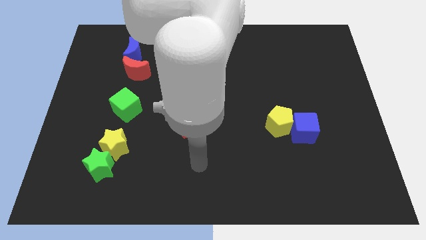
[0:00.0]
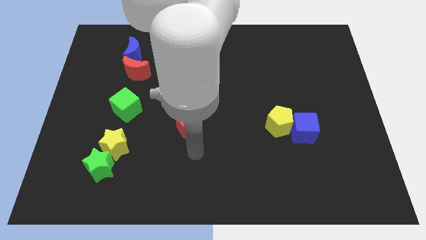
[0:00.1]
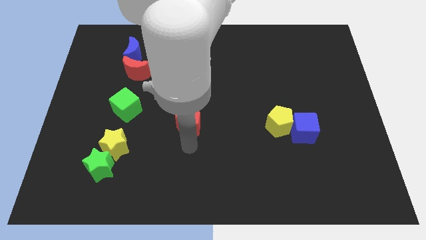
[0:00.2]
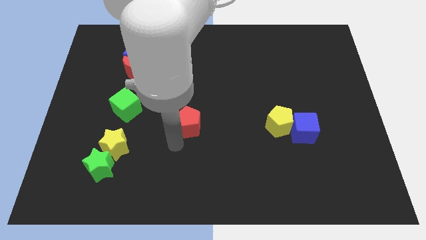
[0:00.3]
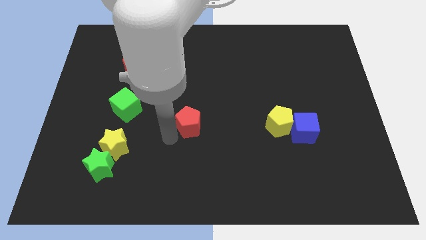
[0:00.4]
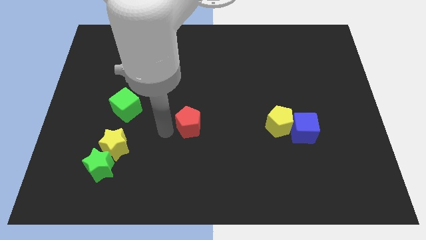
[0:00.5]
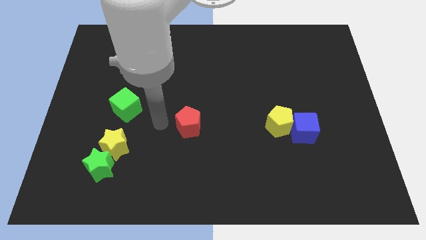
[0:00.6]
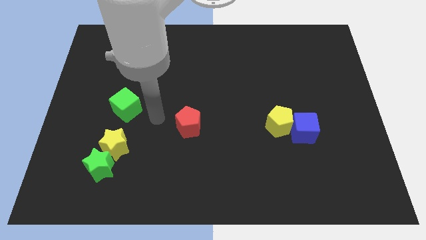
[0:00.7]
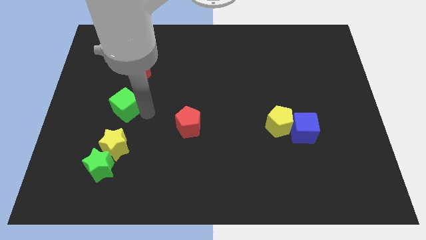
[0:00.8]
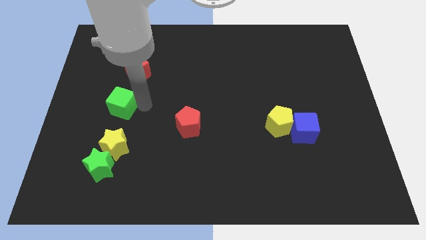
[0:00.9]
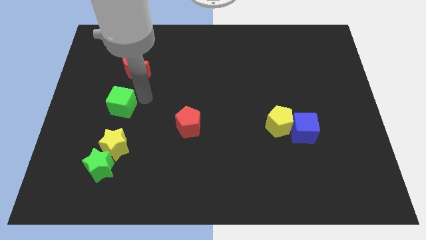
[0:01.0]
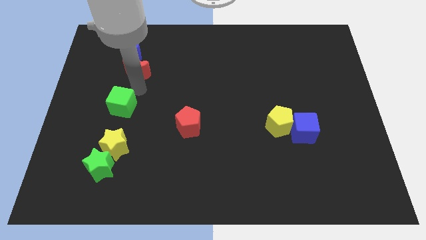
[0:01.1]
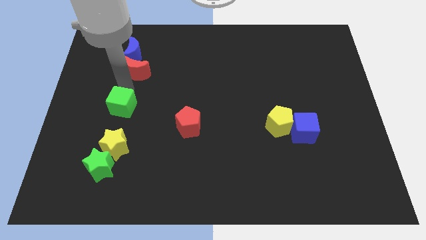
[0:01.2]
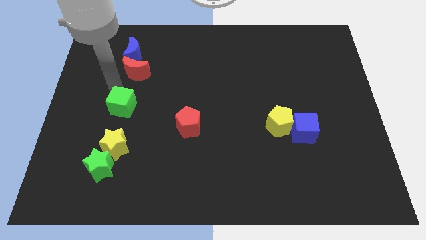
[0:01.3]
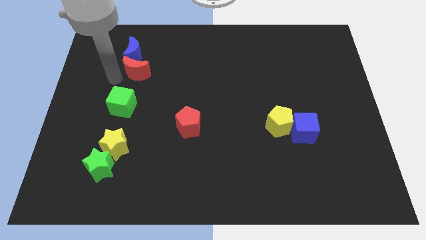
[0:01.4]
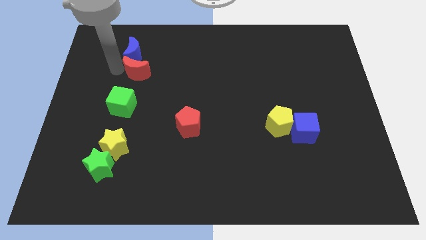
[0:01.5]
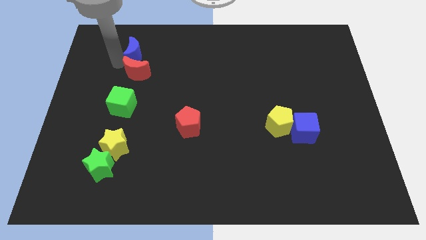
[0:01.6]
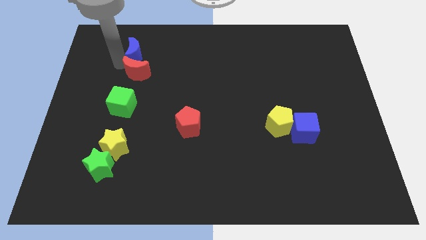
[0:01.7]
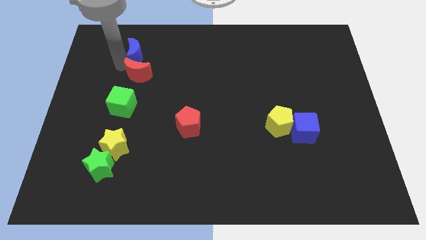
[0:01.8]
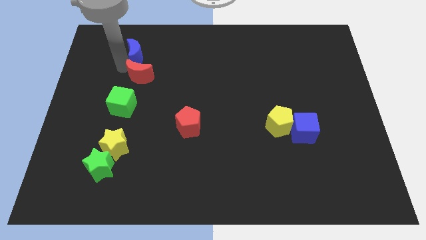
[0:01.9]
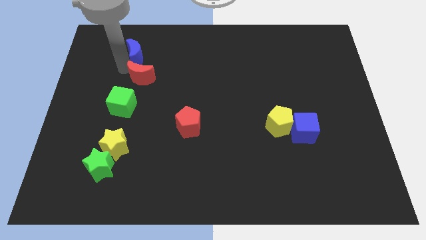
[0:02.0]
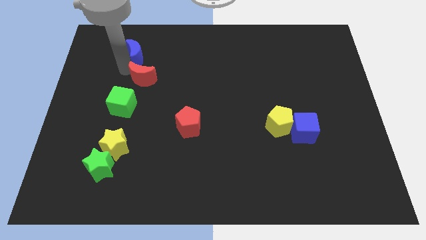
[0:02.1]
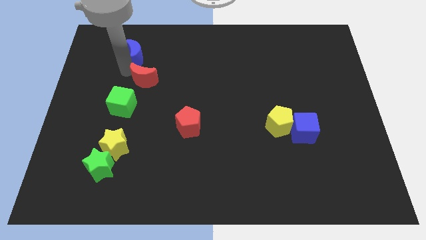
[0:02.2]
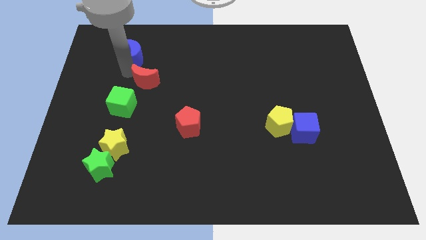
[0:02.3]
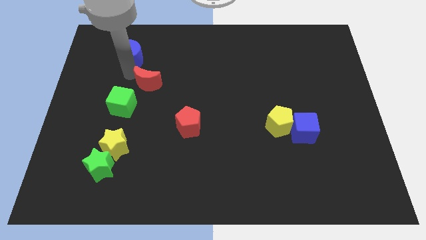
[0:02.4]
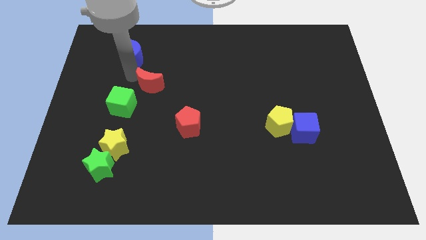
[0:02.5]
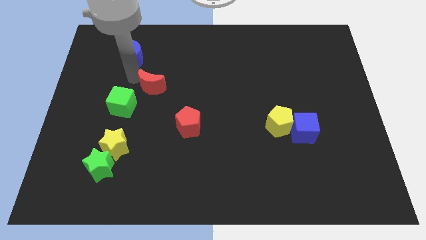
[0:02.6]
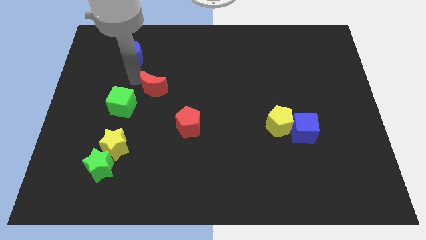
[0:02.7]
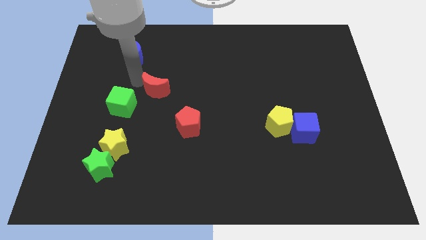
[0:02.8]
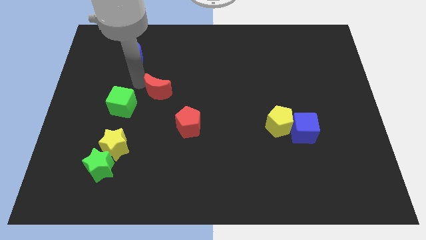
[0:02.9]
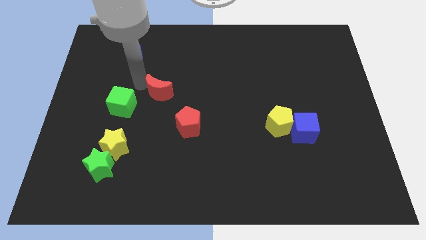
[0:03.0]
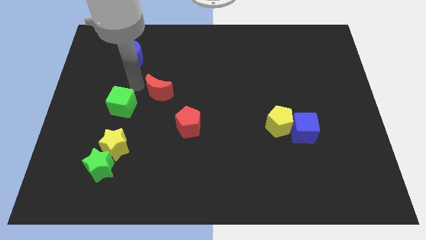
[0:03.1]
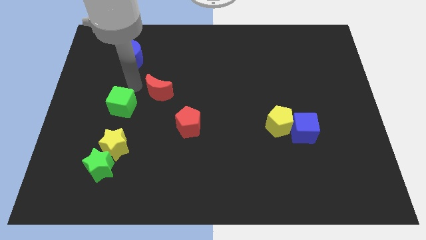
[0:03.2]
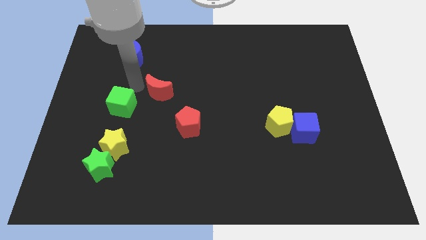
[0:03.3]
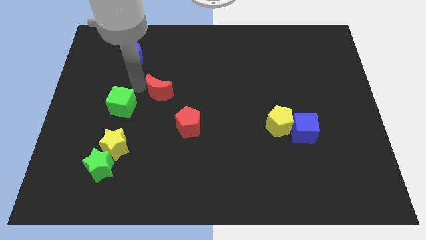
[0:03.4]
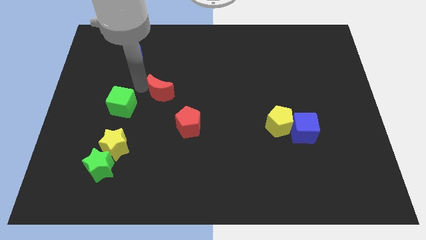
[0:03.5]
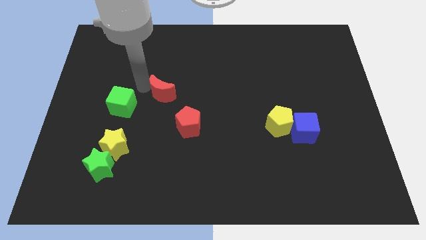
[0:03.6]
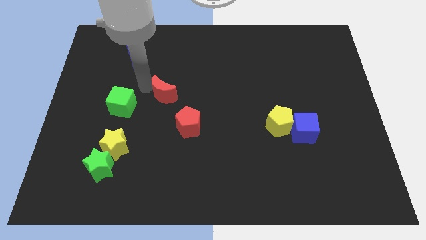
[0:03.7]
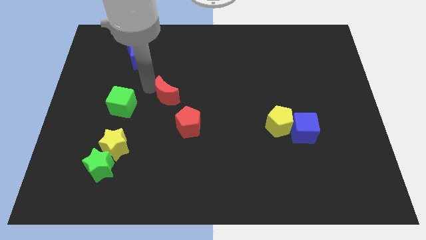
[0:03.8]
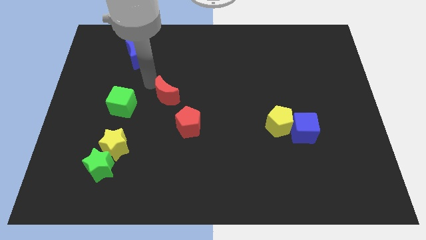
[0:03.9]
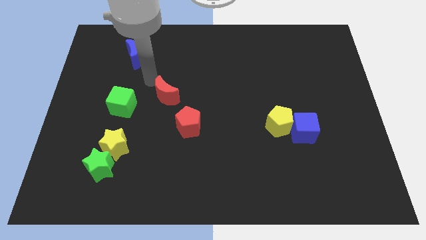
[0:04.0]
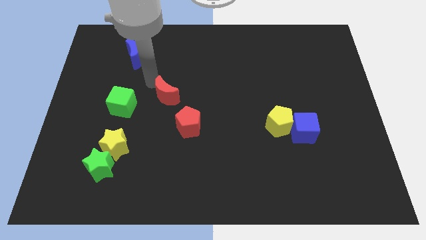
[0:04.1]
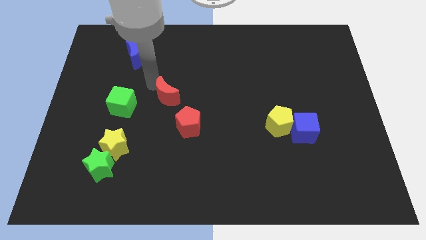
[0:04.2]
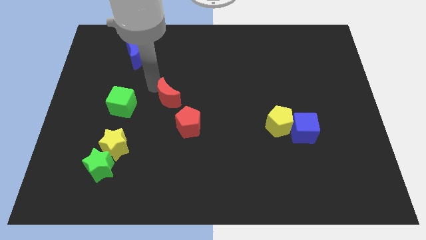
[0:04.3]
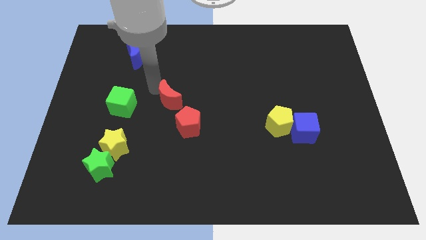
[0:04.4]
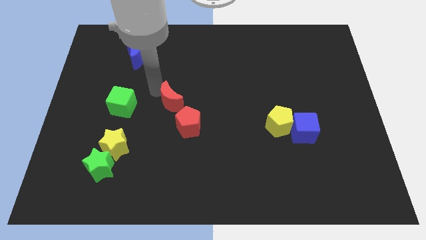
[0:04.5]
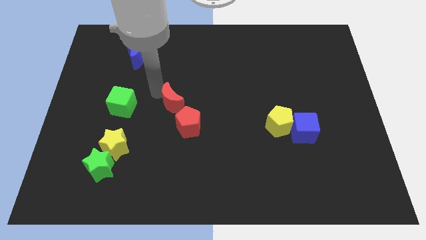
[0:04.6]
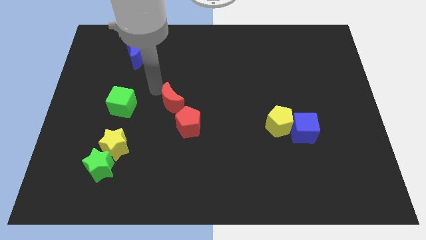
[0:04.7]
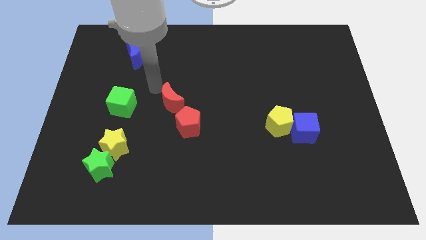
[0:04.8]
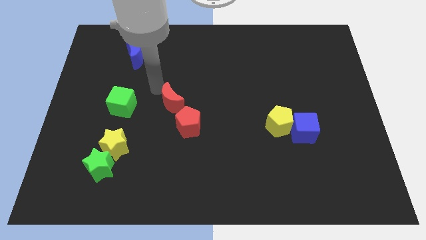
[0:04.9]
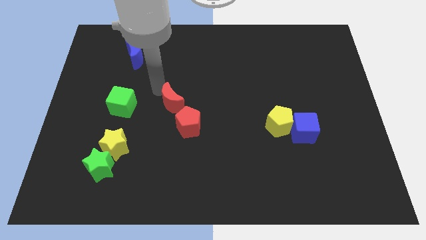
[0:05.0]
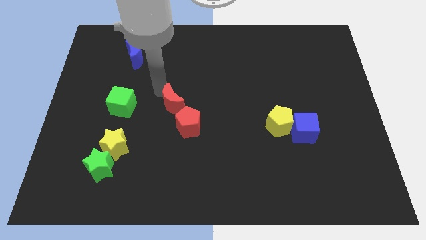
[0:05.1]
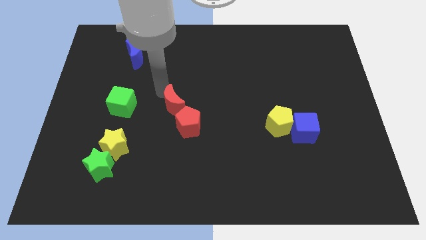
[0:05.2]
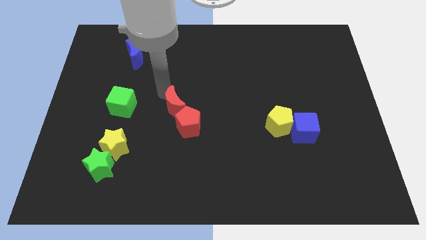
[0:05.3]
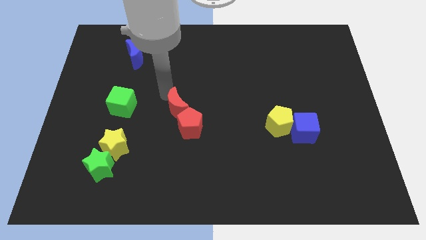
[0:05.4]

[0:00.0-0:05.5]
push the red moon towards the red pentagon

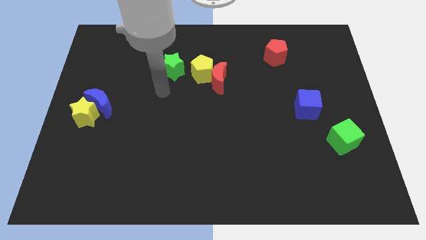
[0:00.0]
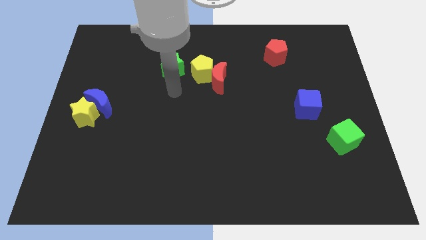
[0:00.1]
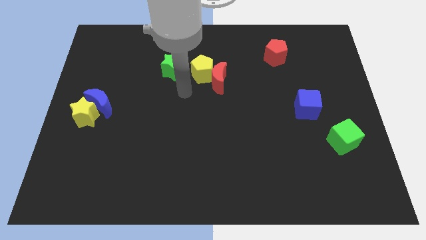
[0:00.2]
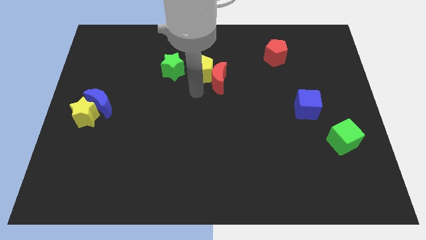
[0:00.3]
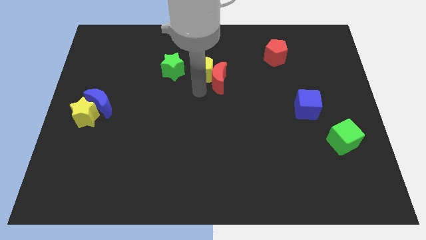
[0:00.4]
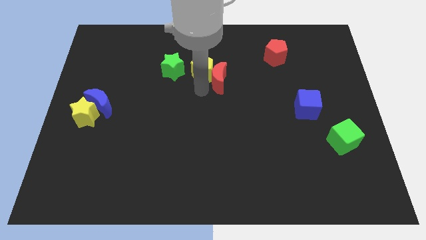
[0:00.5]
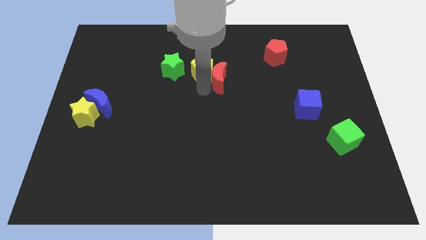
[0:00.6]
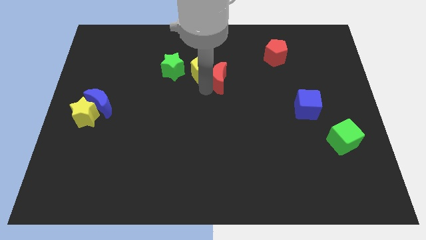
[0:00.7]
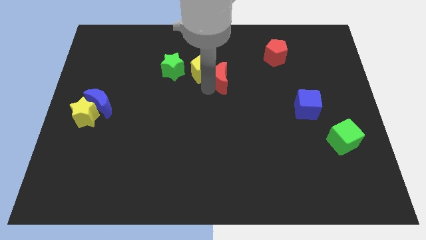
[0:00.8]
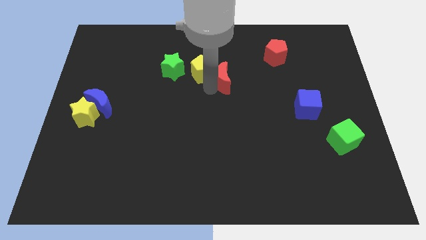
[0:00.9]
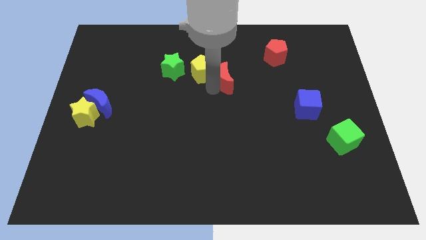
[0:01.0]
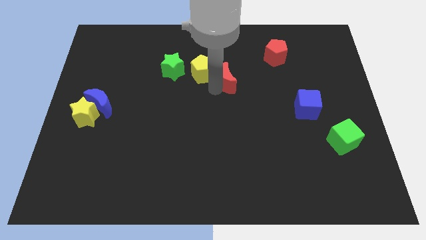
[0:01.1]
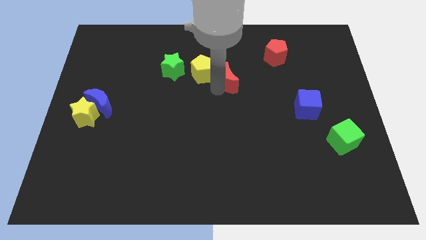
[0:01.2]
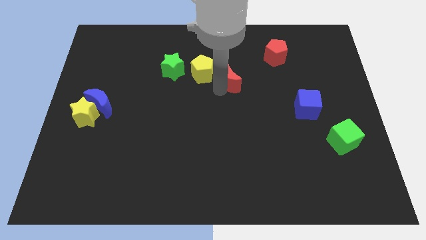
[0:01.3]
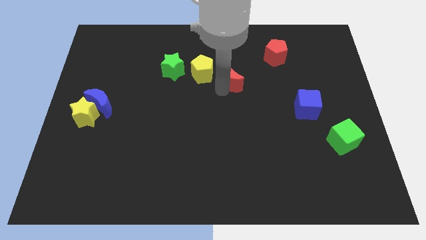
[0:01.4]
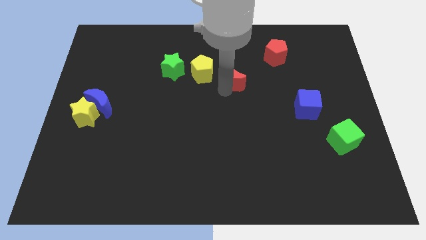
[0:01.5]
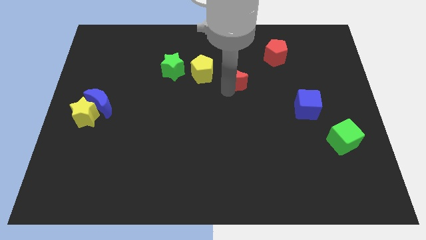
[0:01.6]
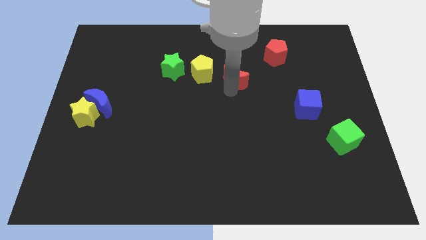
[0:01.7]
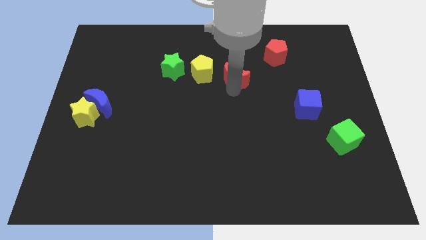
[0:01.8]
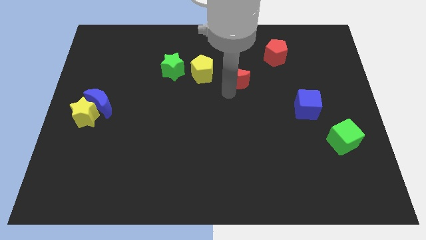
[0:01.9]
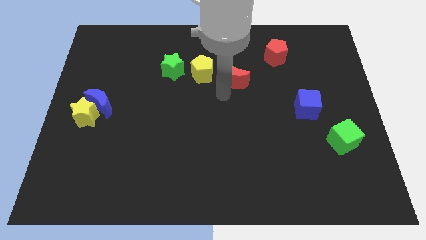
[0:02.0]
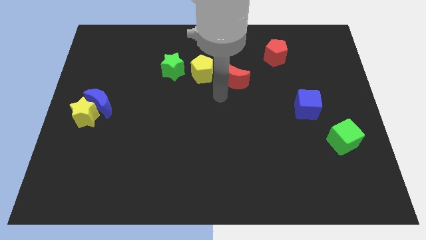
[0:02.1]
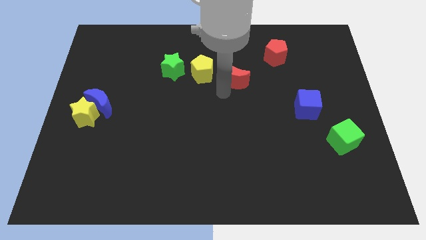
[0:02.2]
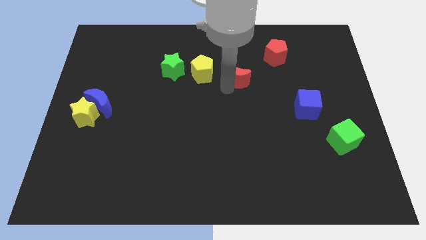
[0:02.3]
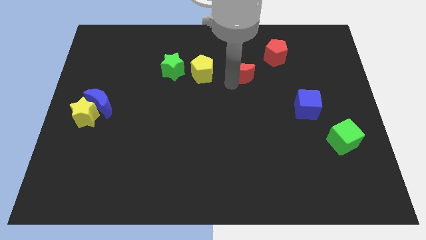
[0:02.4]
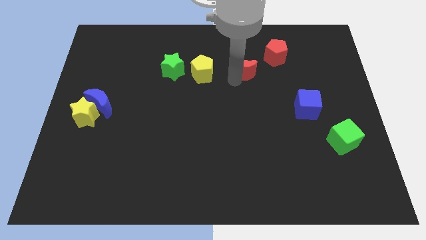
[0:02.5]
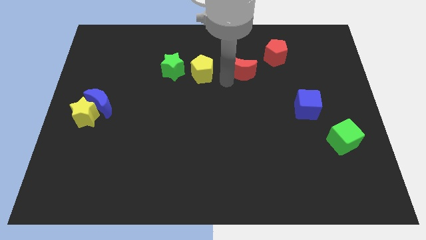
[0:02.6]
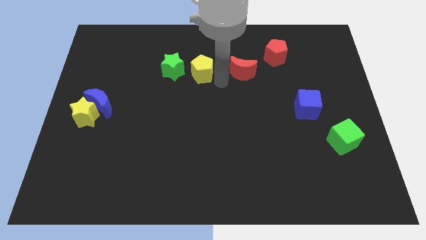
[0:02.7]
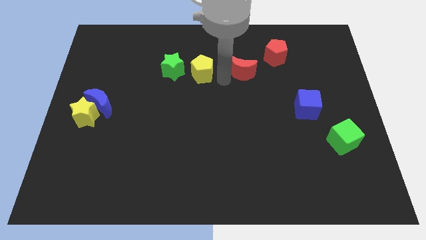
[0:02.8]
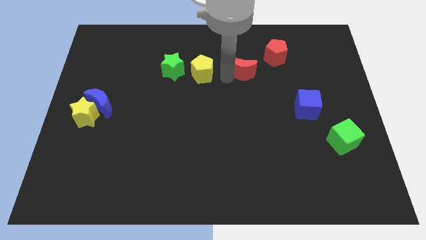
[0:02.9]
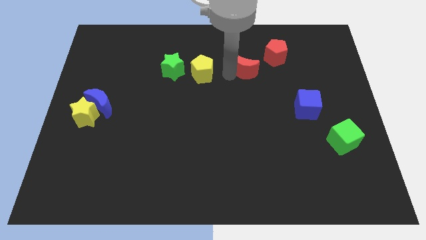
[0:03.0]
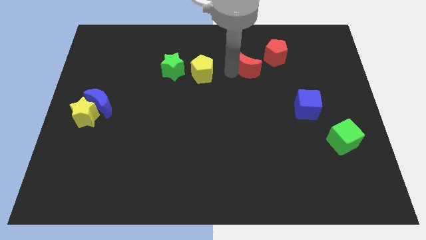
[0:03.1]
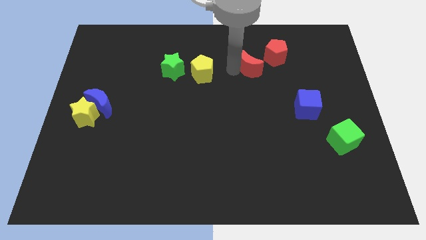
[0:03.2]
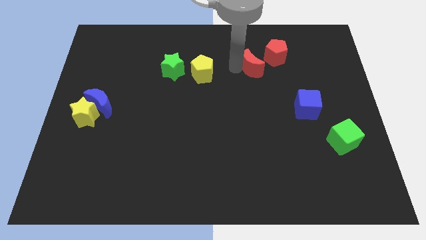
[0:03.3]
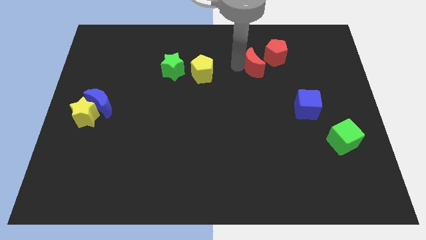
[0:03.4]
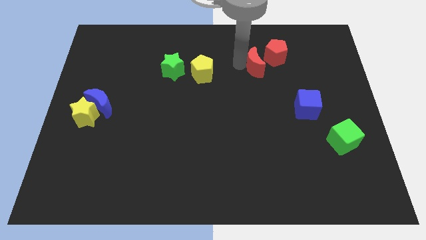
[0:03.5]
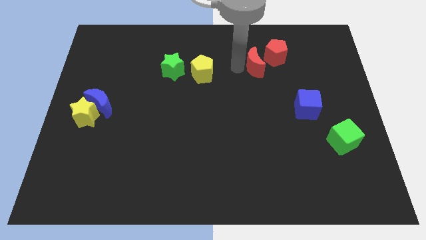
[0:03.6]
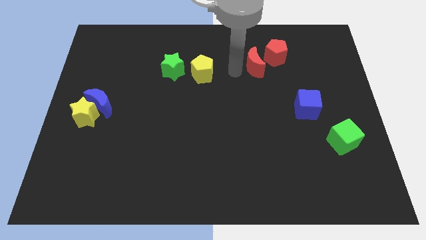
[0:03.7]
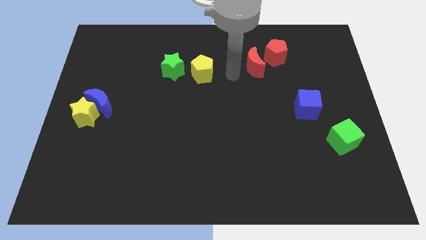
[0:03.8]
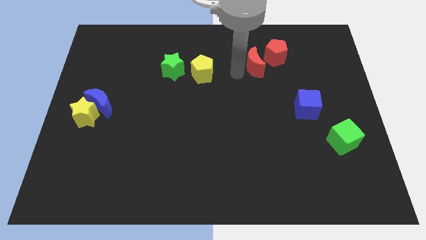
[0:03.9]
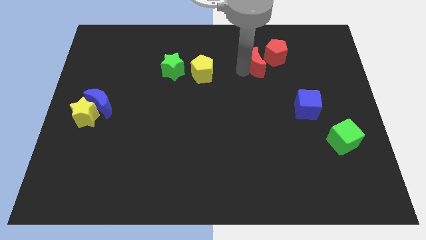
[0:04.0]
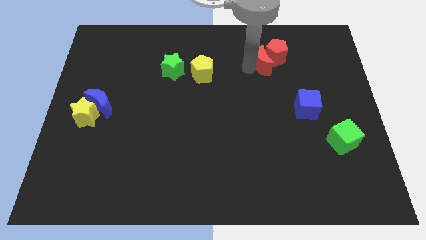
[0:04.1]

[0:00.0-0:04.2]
push the red moon close to the red pentagon
